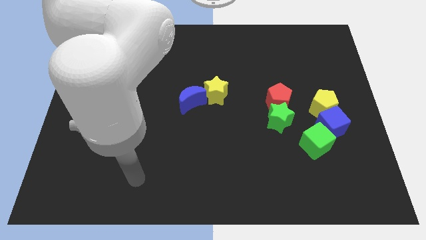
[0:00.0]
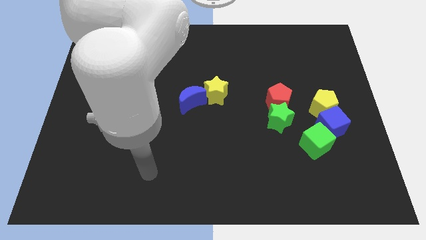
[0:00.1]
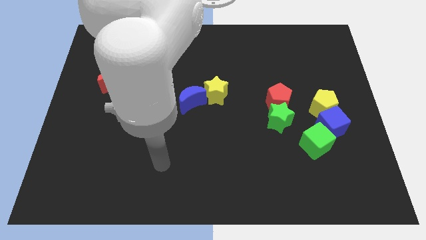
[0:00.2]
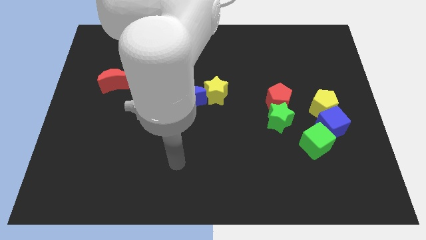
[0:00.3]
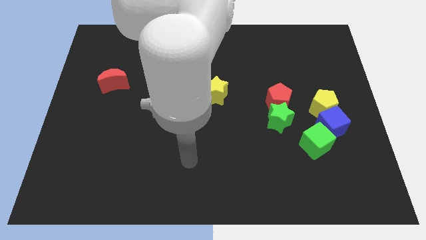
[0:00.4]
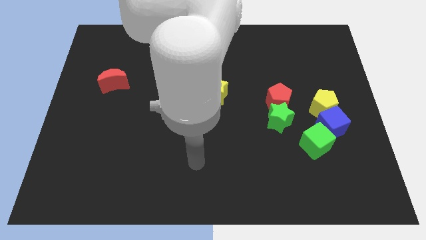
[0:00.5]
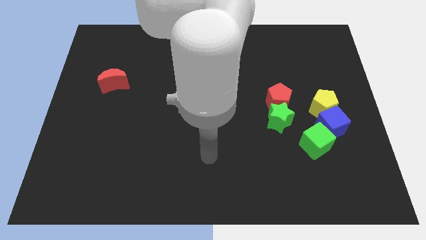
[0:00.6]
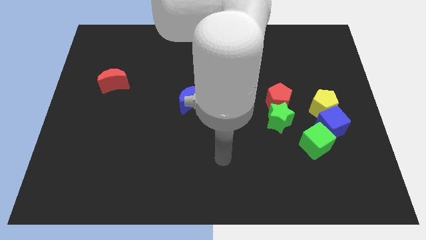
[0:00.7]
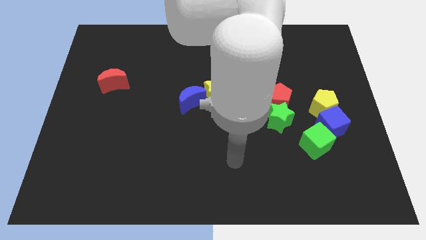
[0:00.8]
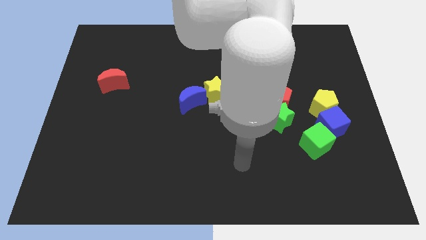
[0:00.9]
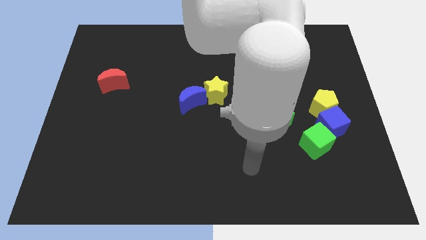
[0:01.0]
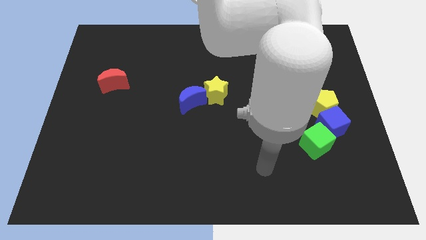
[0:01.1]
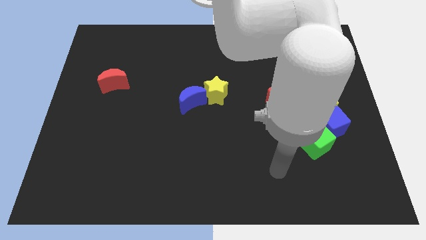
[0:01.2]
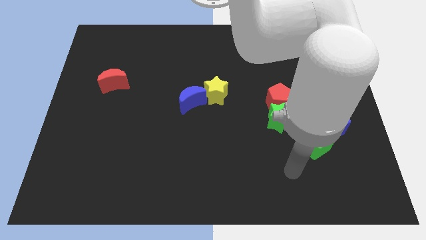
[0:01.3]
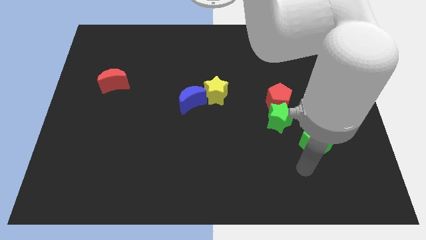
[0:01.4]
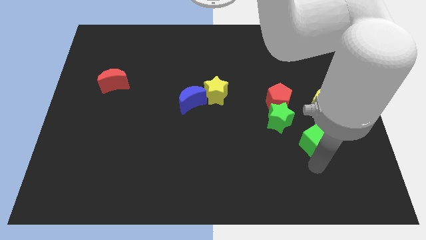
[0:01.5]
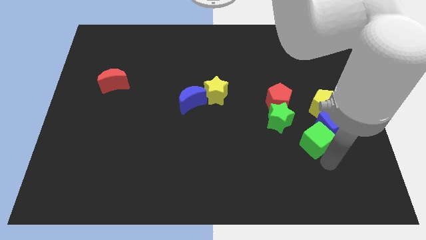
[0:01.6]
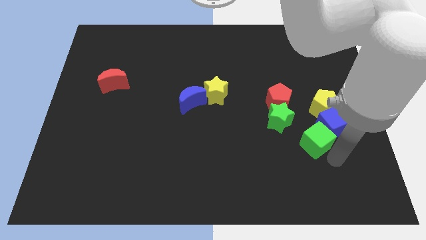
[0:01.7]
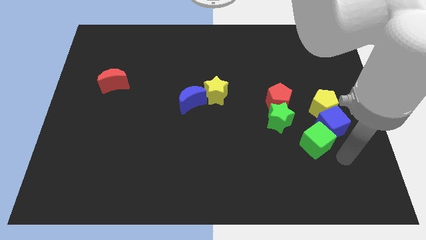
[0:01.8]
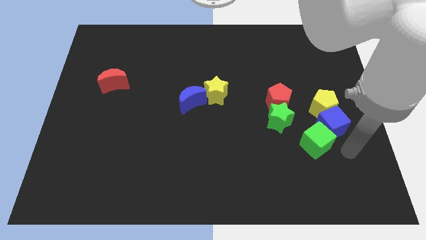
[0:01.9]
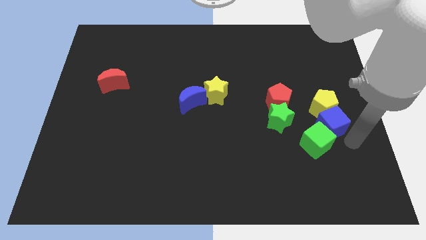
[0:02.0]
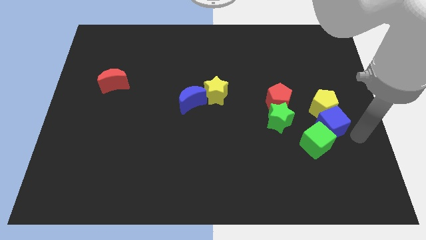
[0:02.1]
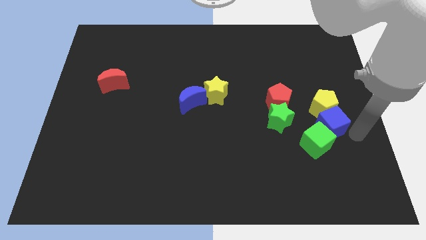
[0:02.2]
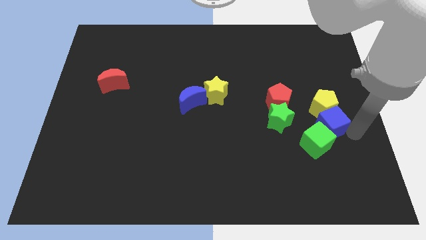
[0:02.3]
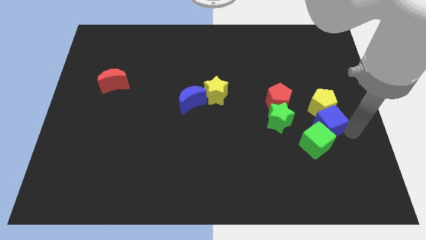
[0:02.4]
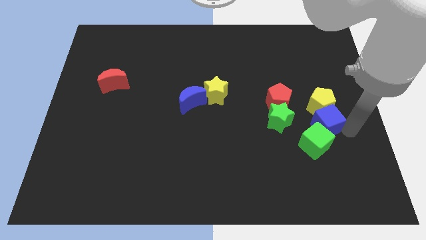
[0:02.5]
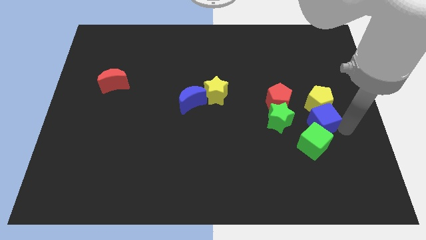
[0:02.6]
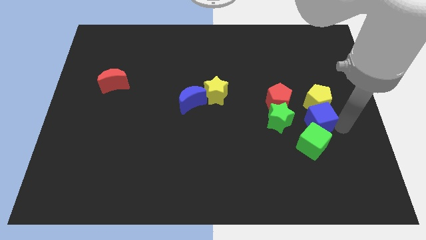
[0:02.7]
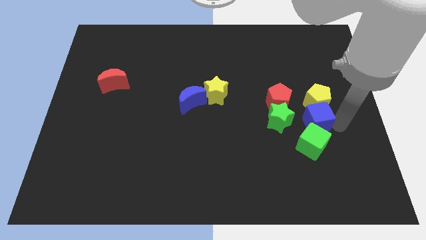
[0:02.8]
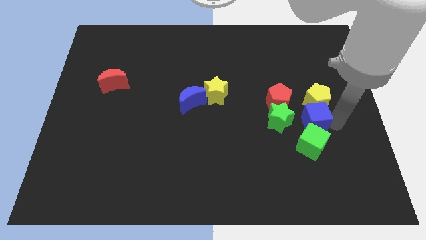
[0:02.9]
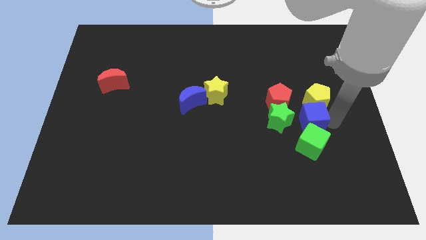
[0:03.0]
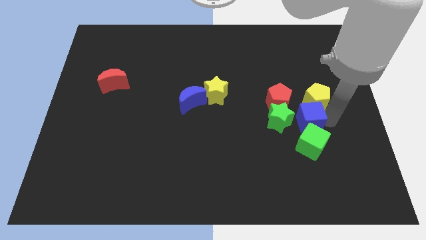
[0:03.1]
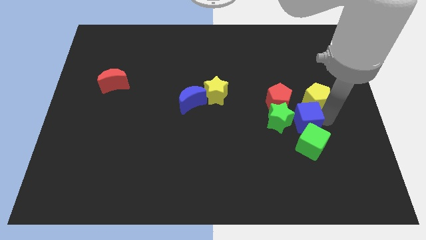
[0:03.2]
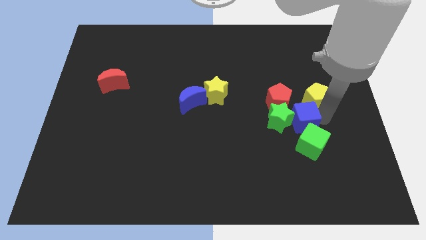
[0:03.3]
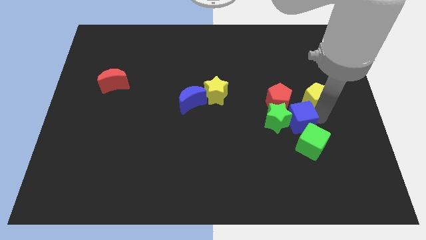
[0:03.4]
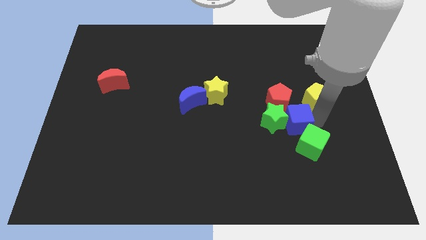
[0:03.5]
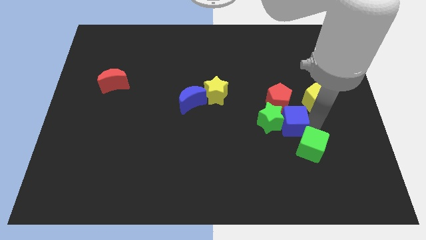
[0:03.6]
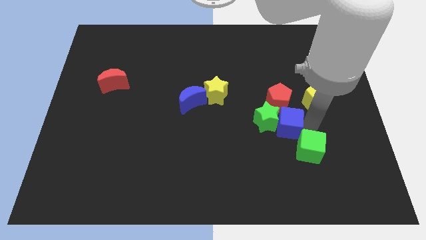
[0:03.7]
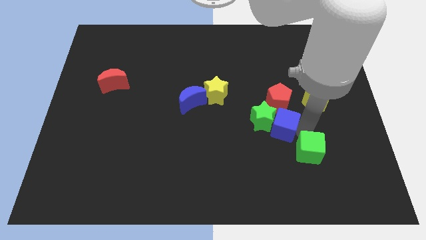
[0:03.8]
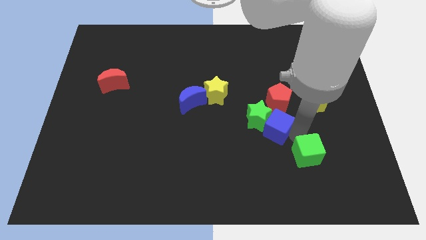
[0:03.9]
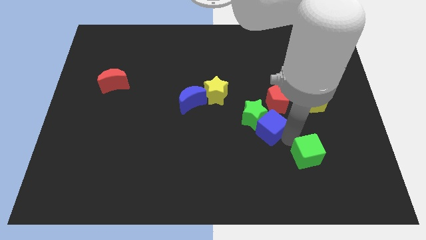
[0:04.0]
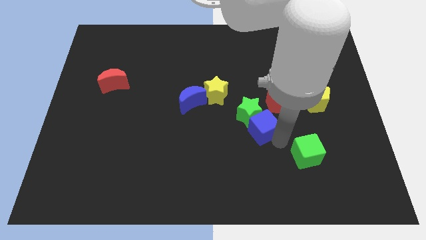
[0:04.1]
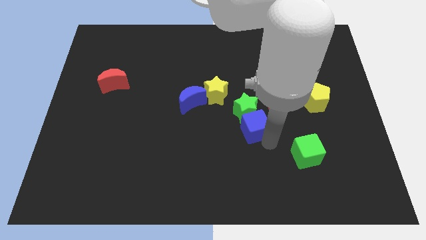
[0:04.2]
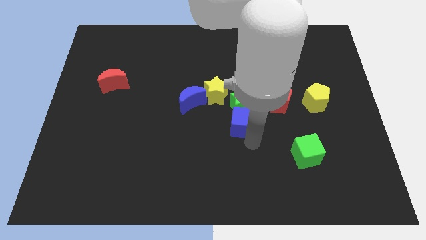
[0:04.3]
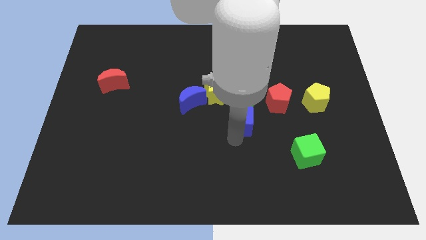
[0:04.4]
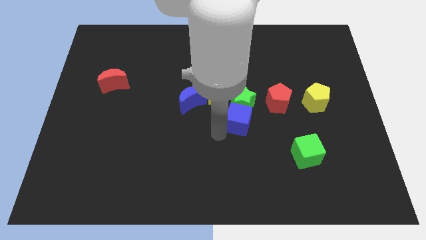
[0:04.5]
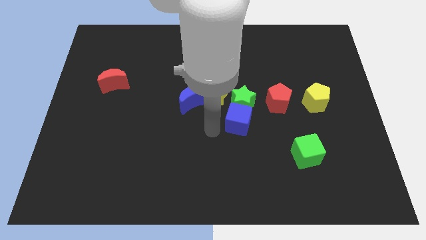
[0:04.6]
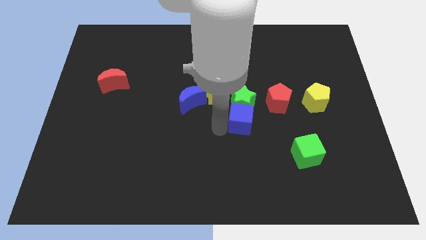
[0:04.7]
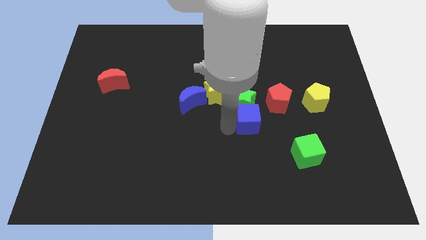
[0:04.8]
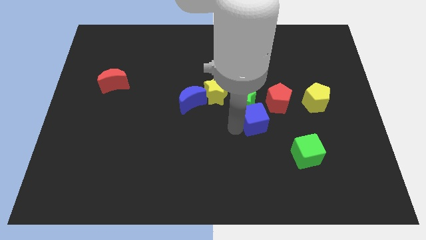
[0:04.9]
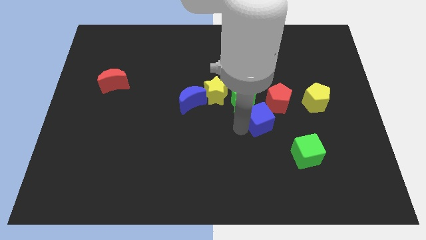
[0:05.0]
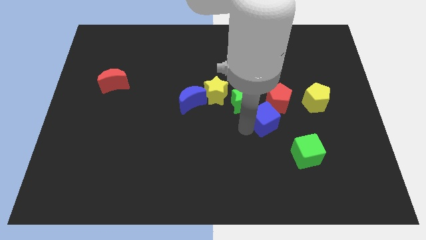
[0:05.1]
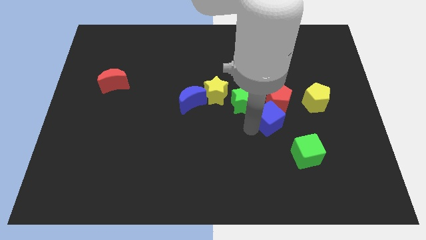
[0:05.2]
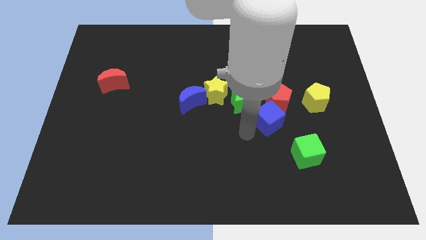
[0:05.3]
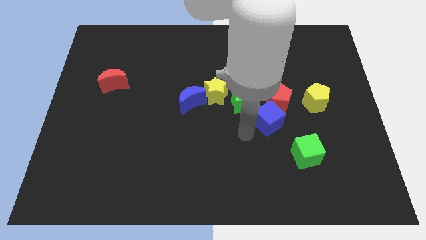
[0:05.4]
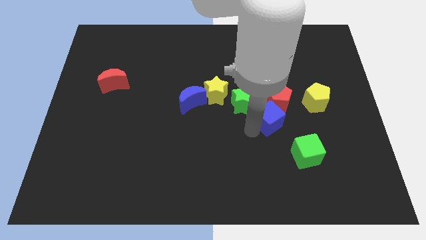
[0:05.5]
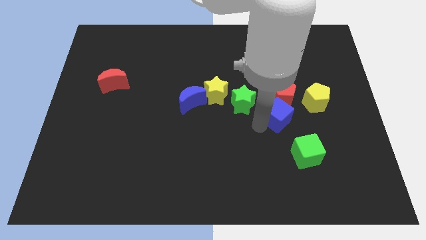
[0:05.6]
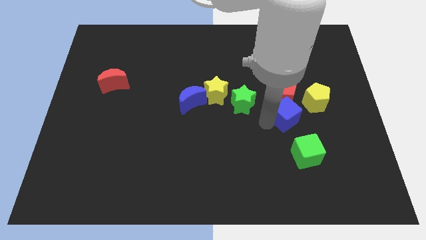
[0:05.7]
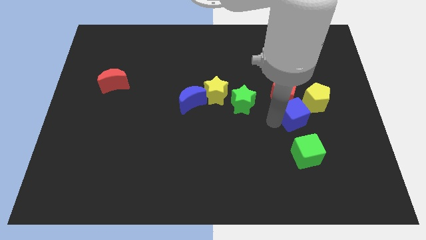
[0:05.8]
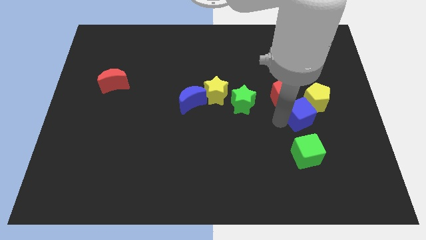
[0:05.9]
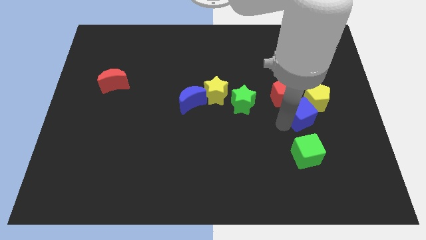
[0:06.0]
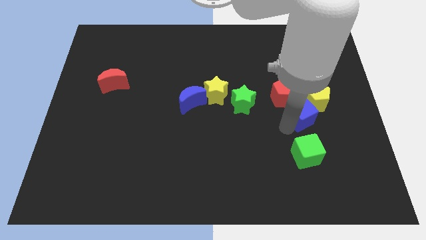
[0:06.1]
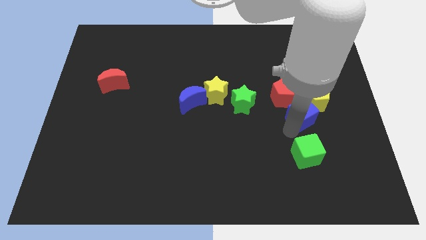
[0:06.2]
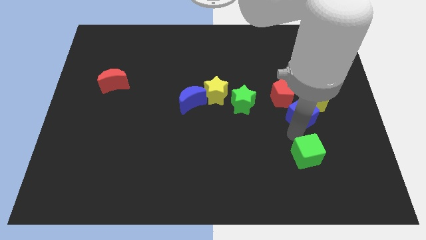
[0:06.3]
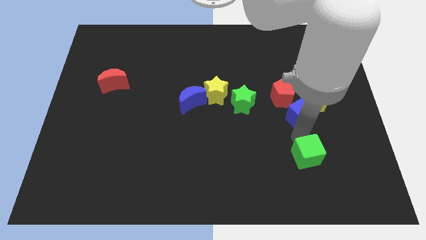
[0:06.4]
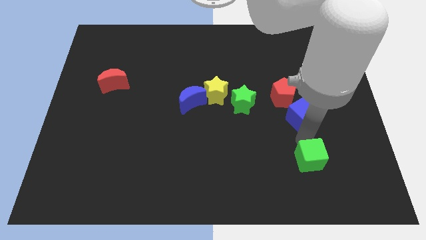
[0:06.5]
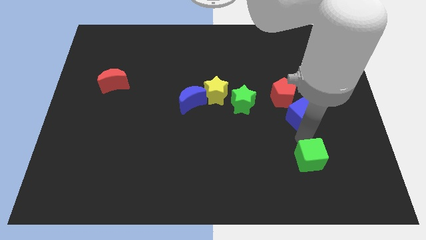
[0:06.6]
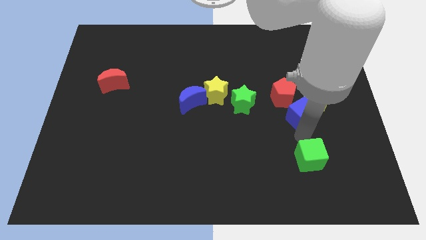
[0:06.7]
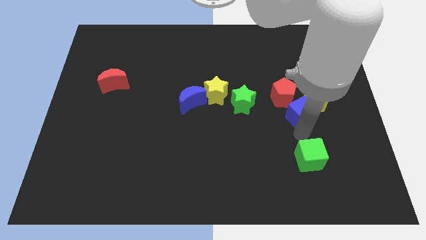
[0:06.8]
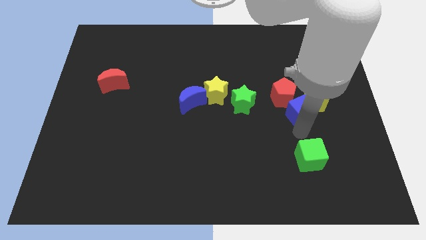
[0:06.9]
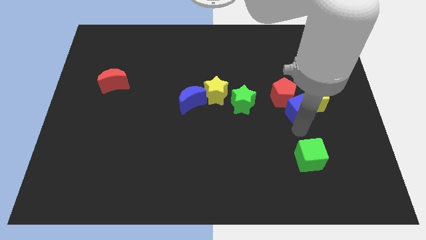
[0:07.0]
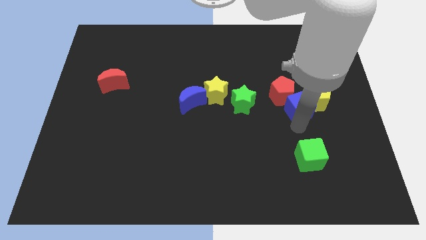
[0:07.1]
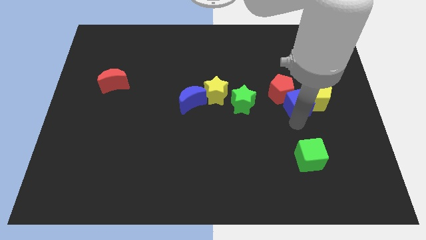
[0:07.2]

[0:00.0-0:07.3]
put the blue cube to the top left side of the yellow pentagon
